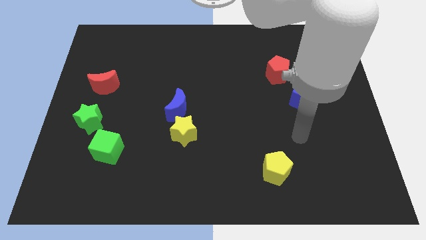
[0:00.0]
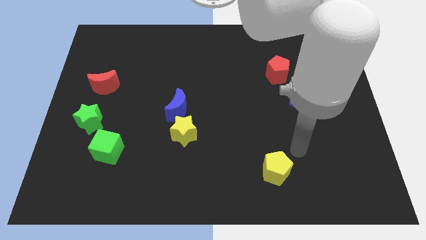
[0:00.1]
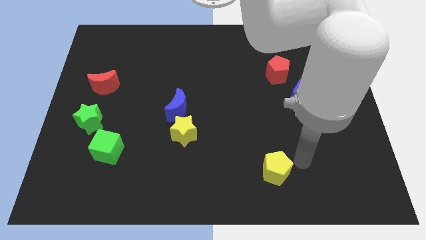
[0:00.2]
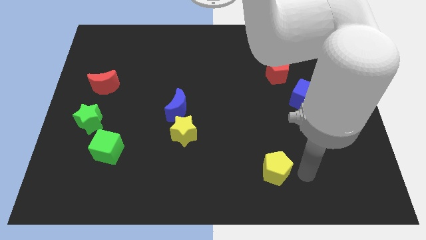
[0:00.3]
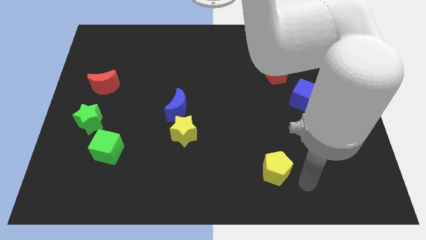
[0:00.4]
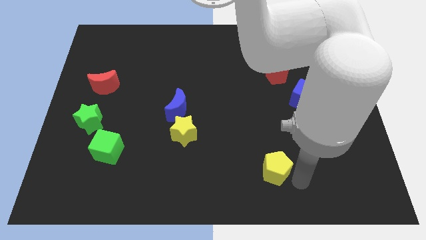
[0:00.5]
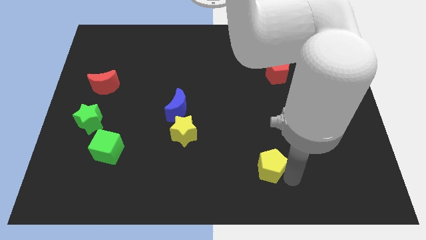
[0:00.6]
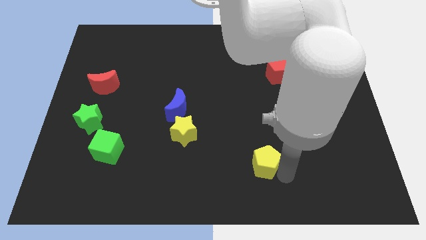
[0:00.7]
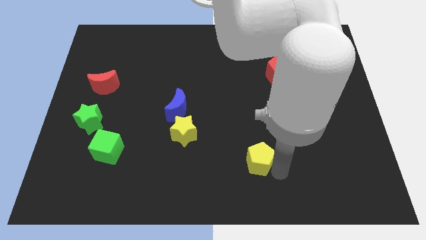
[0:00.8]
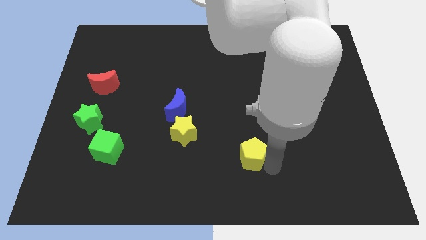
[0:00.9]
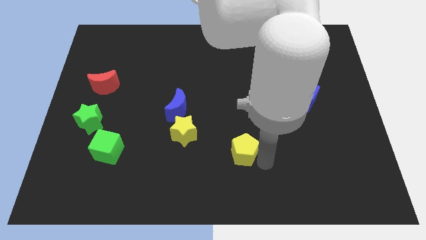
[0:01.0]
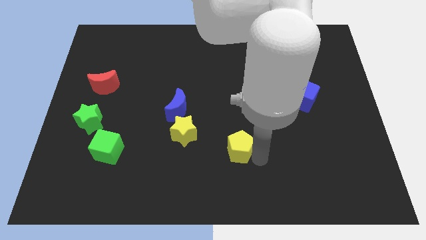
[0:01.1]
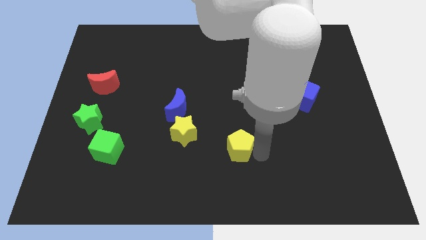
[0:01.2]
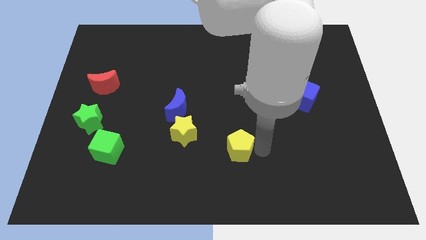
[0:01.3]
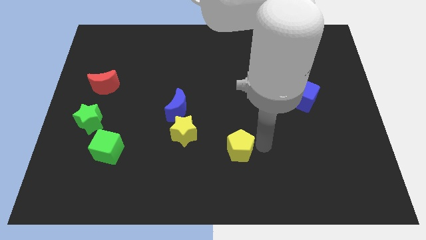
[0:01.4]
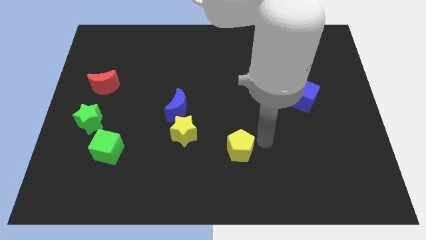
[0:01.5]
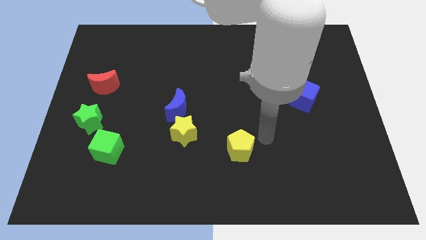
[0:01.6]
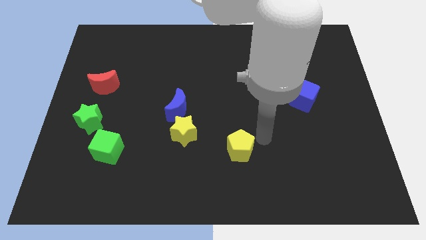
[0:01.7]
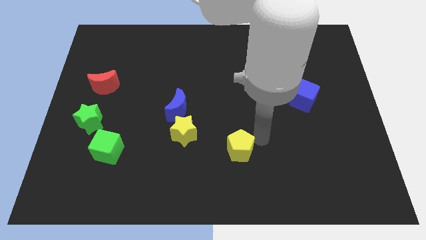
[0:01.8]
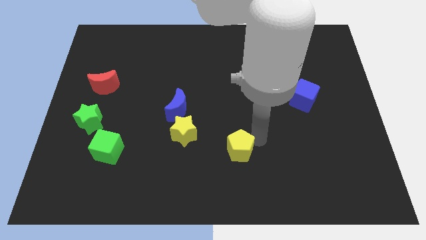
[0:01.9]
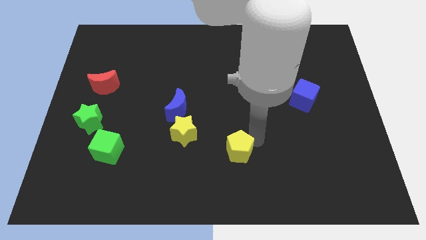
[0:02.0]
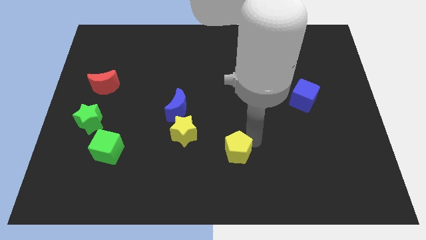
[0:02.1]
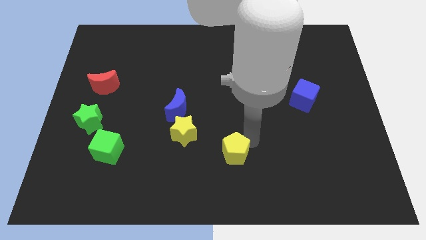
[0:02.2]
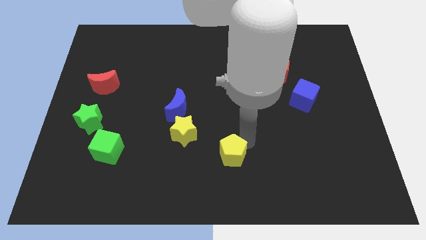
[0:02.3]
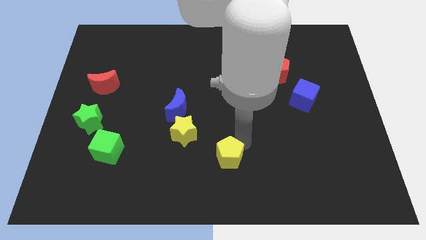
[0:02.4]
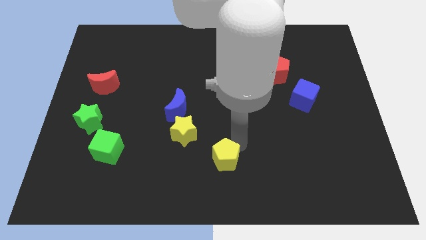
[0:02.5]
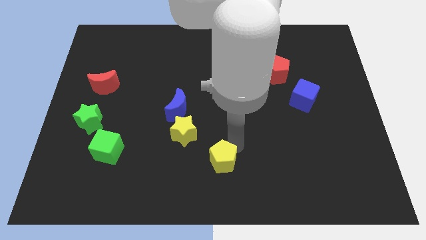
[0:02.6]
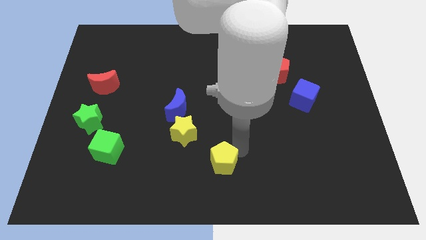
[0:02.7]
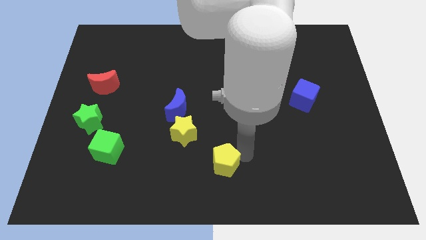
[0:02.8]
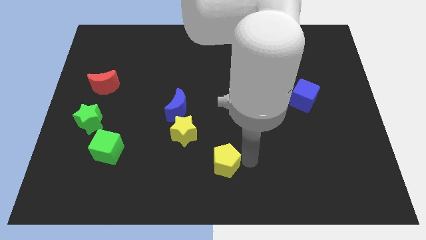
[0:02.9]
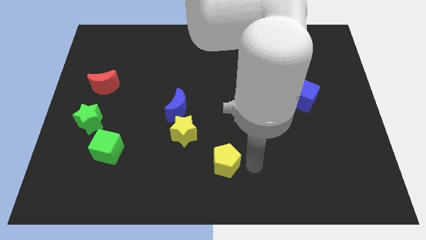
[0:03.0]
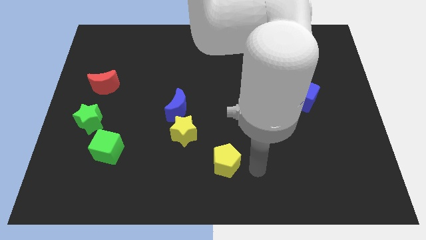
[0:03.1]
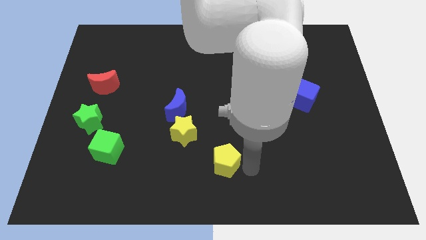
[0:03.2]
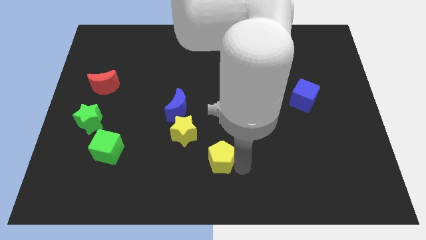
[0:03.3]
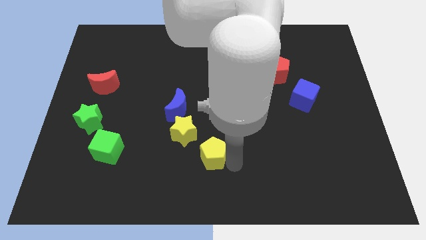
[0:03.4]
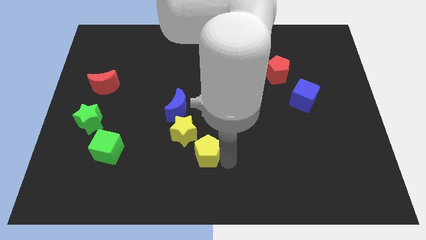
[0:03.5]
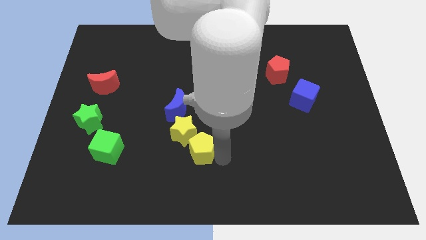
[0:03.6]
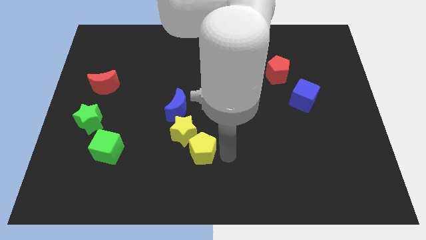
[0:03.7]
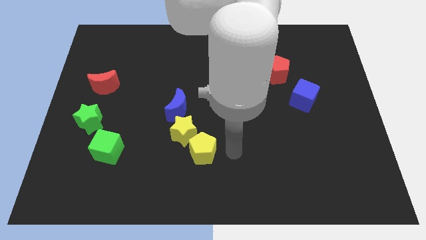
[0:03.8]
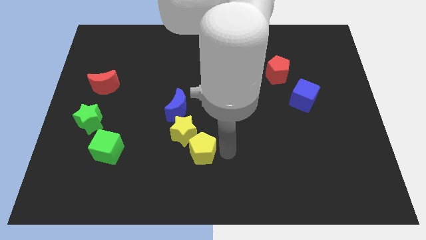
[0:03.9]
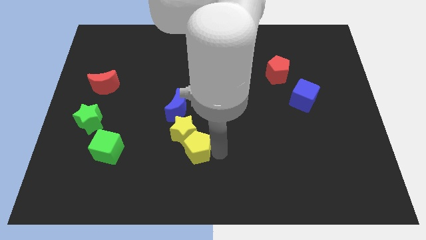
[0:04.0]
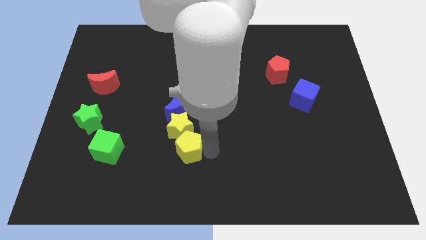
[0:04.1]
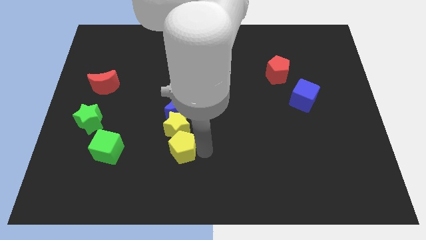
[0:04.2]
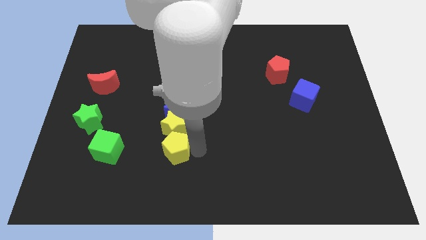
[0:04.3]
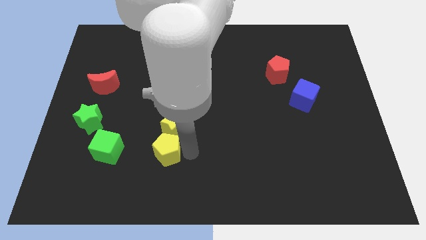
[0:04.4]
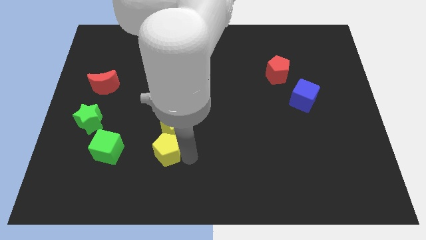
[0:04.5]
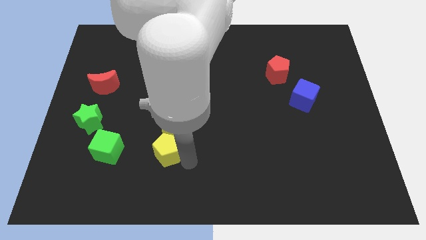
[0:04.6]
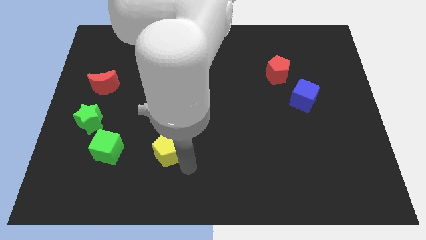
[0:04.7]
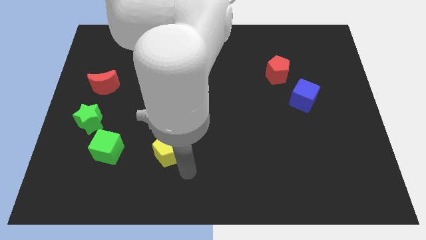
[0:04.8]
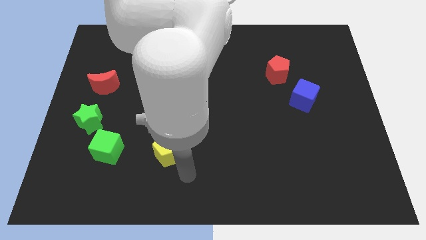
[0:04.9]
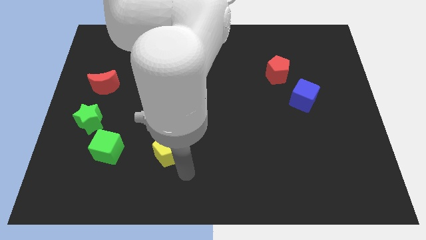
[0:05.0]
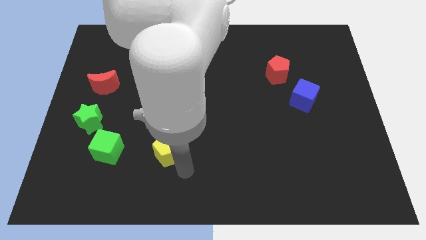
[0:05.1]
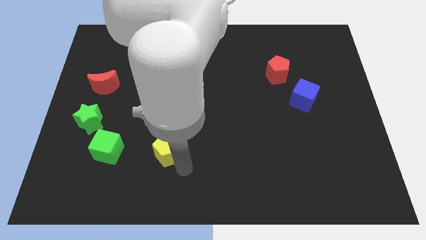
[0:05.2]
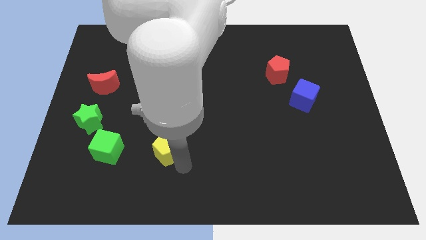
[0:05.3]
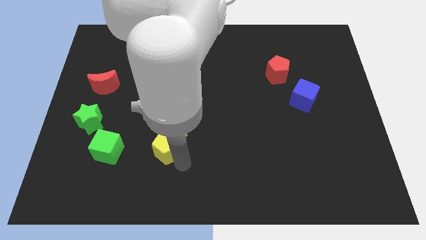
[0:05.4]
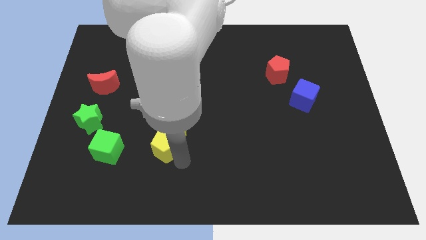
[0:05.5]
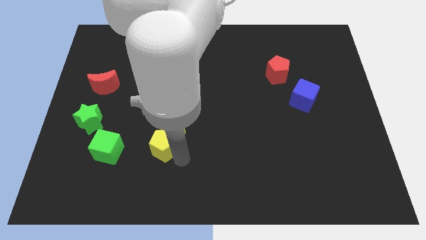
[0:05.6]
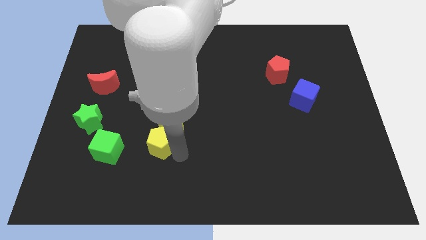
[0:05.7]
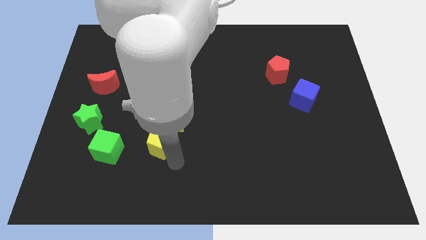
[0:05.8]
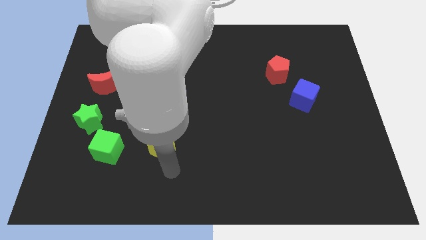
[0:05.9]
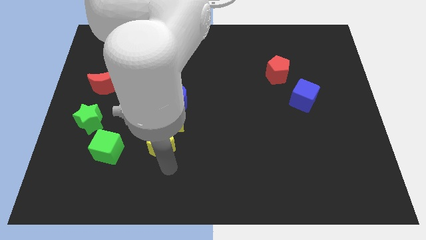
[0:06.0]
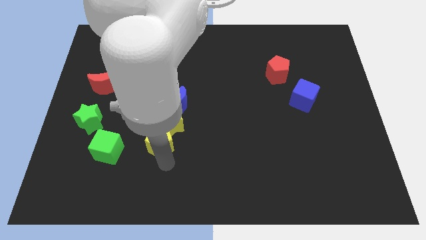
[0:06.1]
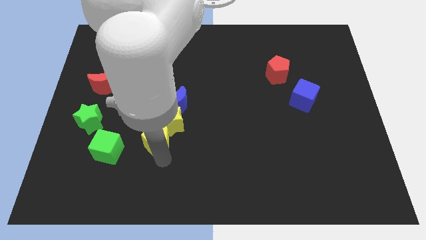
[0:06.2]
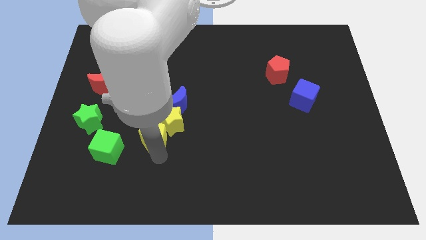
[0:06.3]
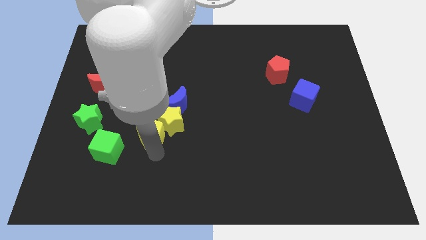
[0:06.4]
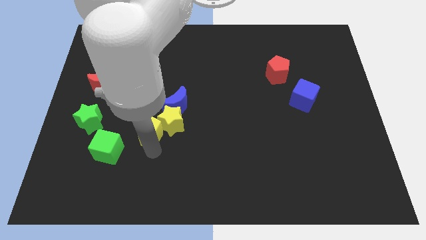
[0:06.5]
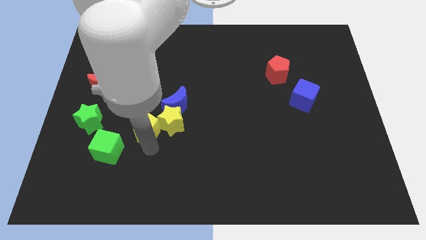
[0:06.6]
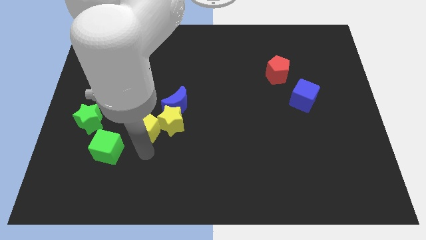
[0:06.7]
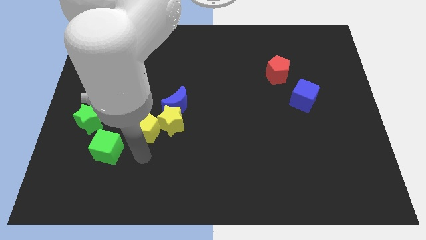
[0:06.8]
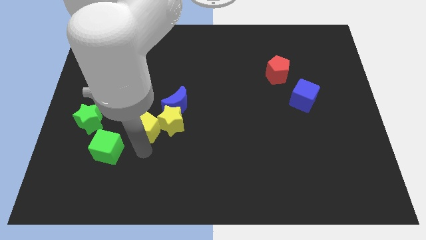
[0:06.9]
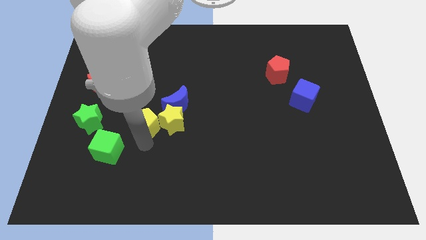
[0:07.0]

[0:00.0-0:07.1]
move the yellow pentagon to the top left of the yellow star
